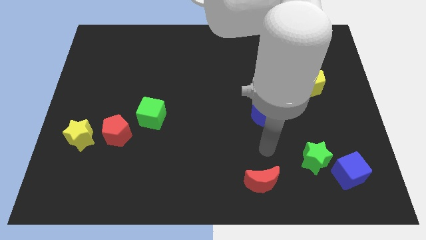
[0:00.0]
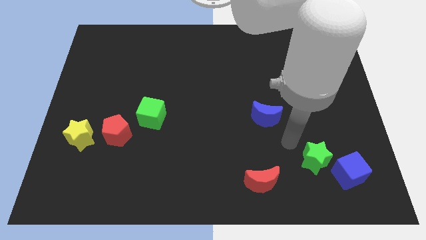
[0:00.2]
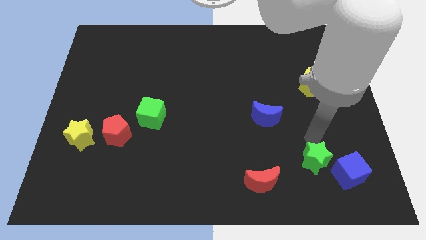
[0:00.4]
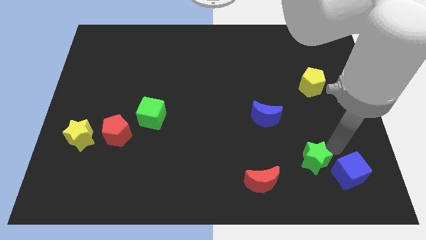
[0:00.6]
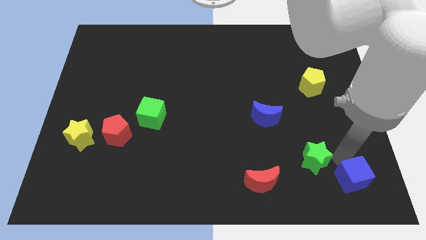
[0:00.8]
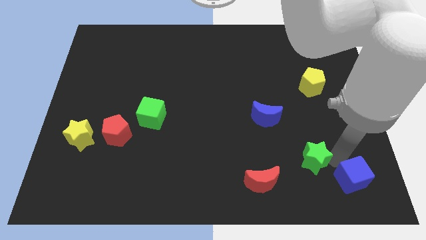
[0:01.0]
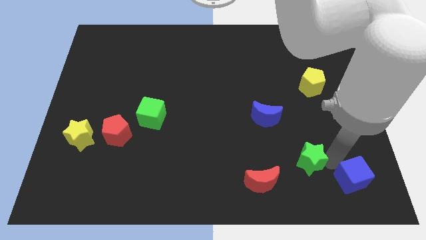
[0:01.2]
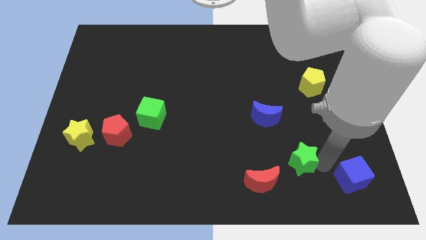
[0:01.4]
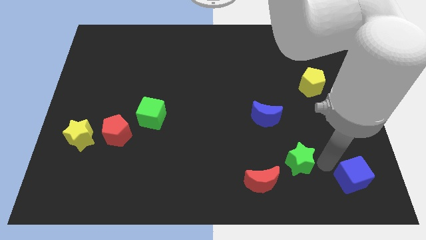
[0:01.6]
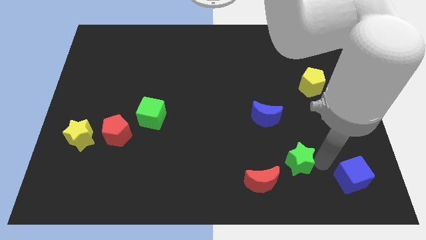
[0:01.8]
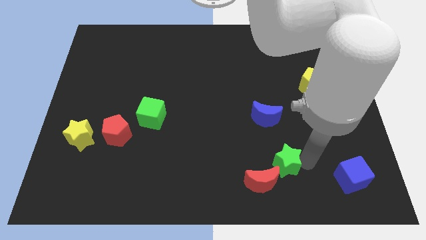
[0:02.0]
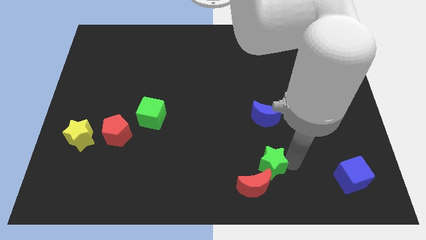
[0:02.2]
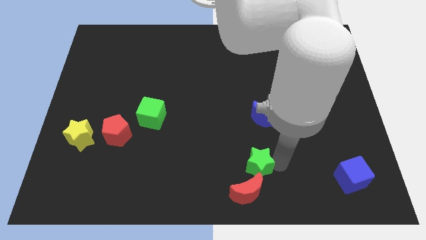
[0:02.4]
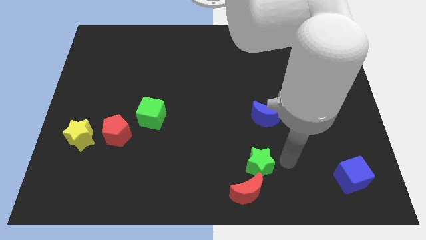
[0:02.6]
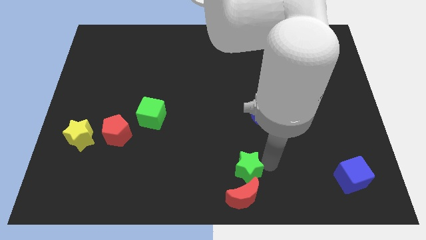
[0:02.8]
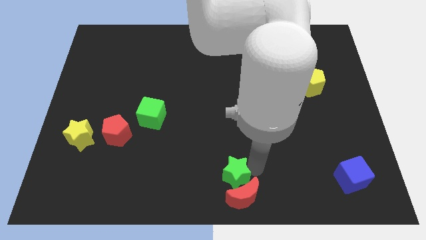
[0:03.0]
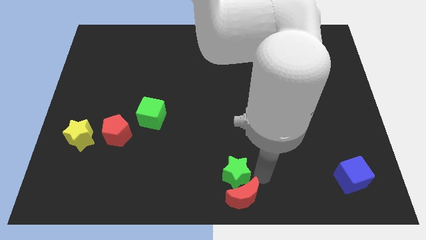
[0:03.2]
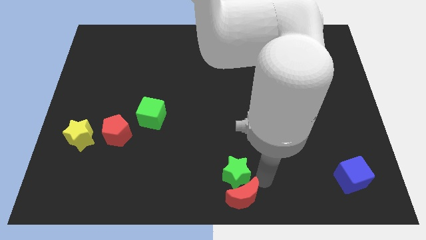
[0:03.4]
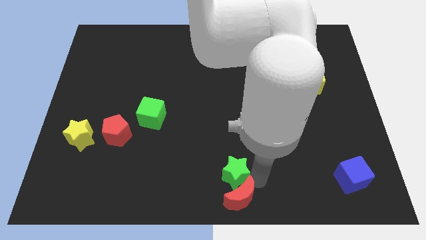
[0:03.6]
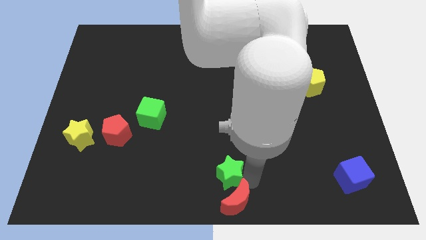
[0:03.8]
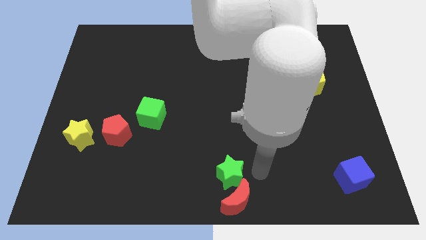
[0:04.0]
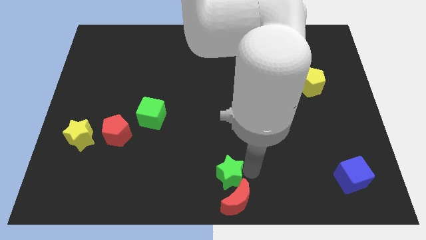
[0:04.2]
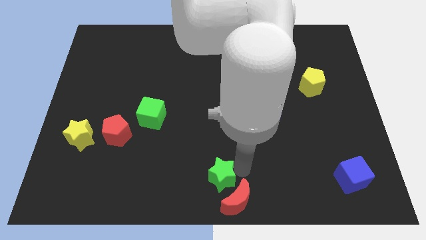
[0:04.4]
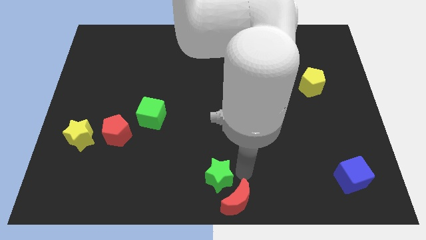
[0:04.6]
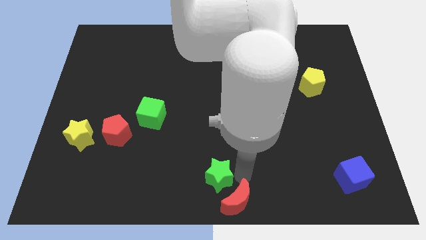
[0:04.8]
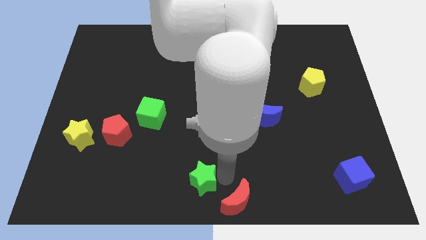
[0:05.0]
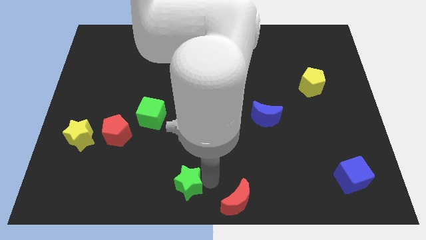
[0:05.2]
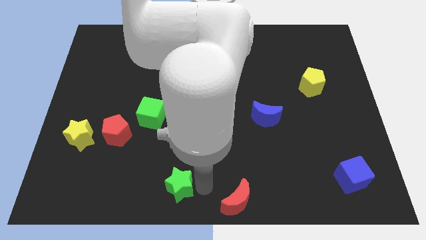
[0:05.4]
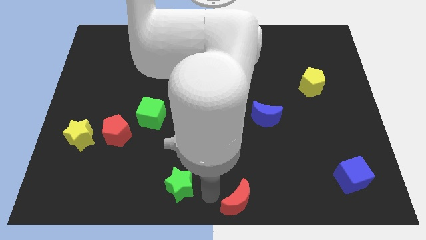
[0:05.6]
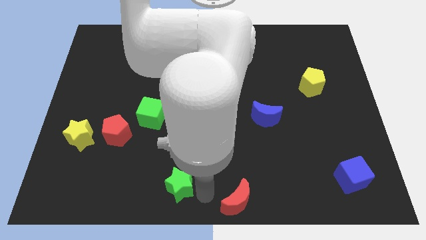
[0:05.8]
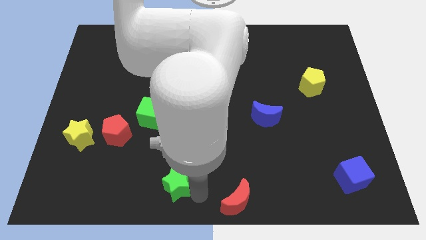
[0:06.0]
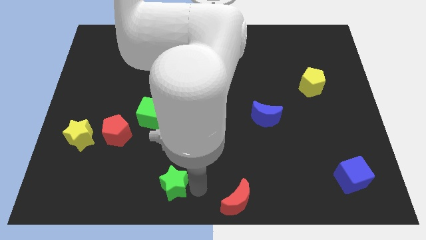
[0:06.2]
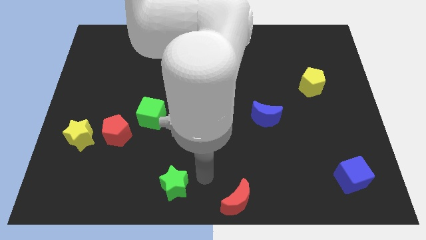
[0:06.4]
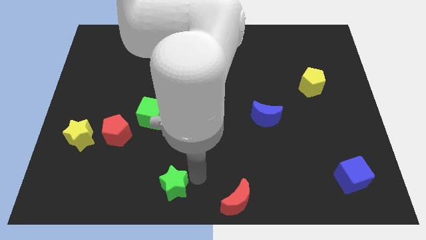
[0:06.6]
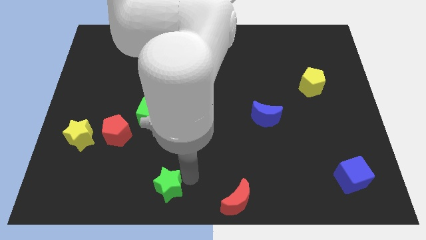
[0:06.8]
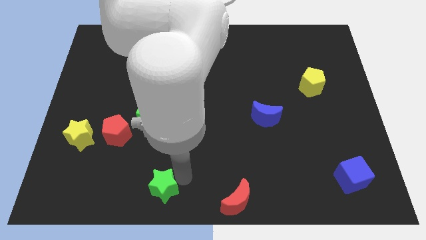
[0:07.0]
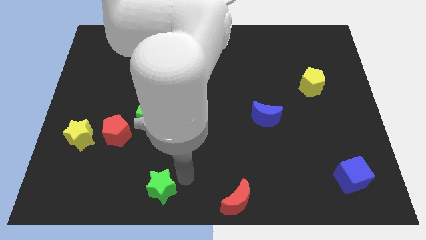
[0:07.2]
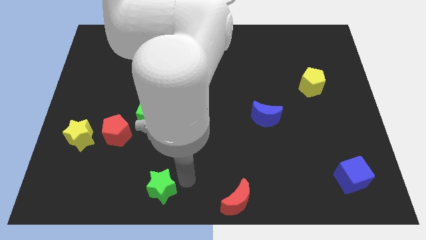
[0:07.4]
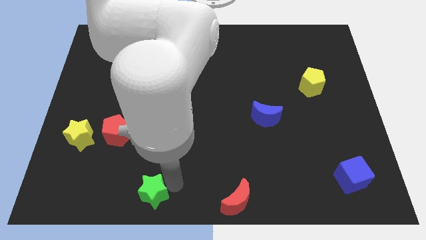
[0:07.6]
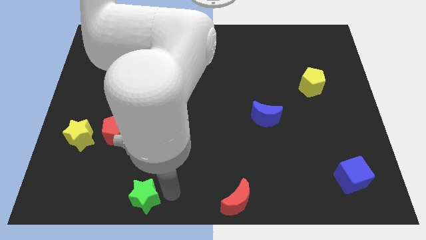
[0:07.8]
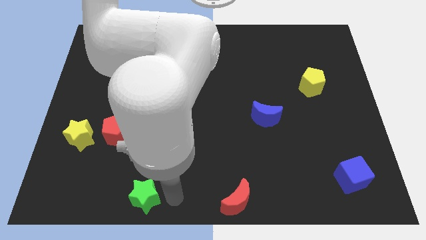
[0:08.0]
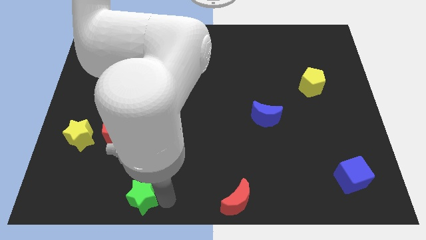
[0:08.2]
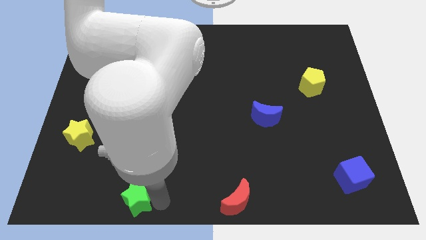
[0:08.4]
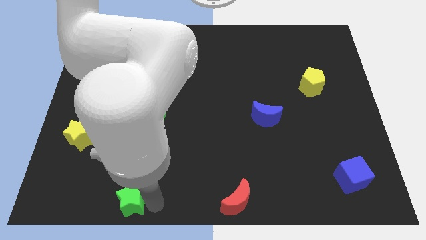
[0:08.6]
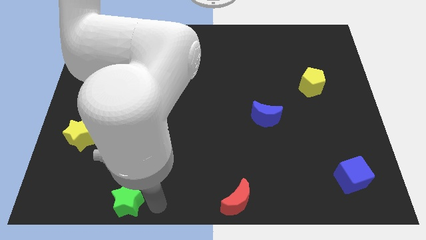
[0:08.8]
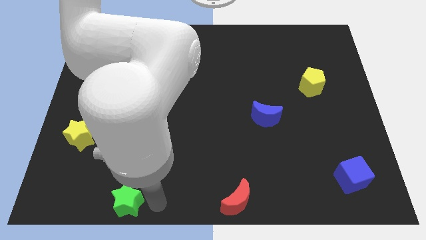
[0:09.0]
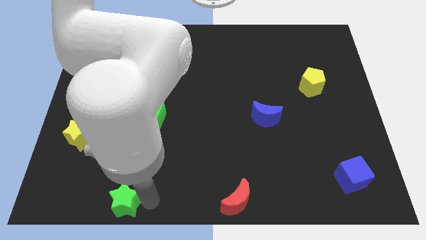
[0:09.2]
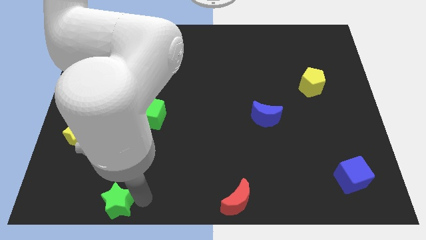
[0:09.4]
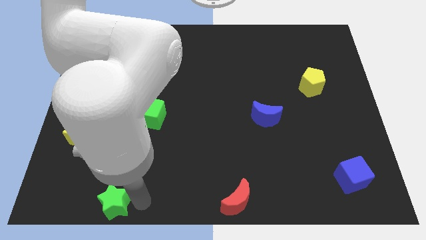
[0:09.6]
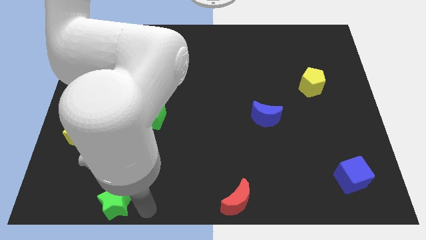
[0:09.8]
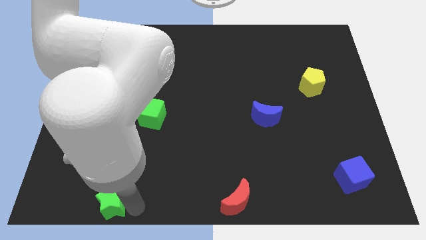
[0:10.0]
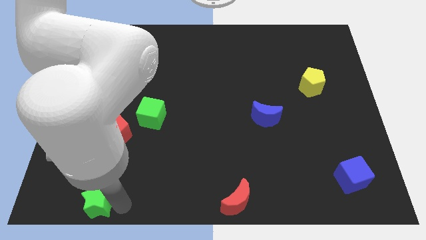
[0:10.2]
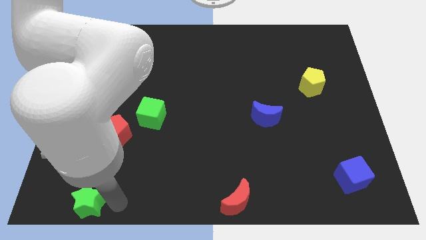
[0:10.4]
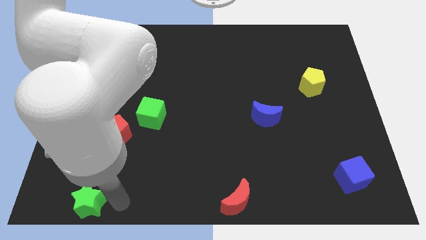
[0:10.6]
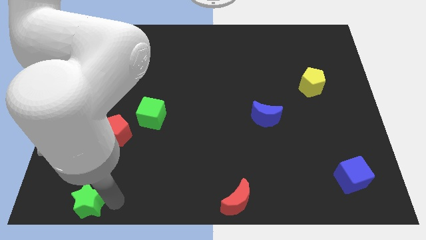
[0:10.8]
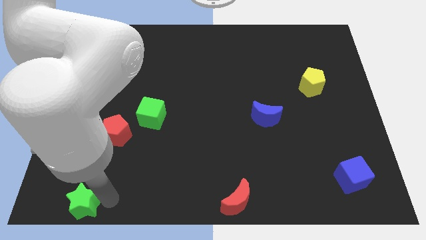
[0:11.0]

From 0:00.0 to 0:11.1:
put the green star to the bottom left

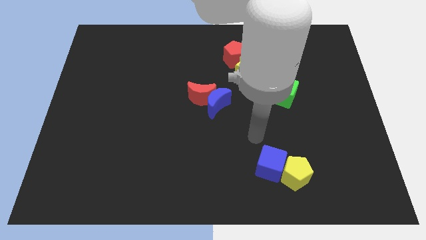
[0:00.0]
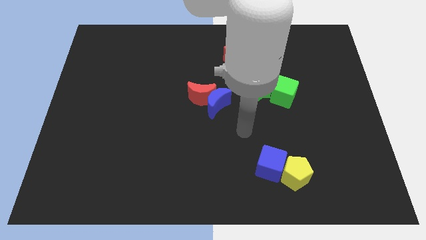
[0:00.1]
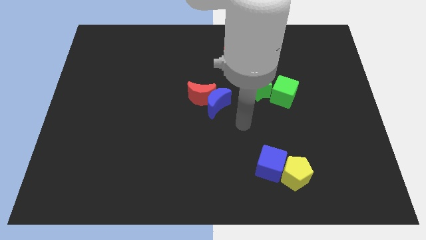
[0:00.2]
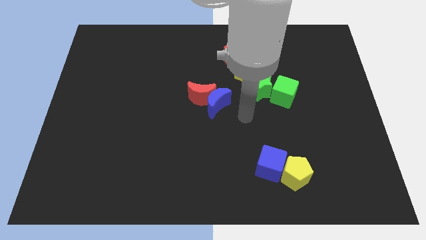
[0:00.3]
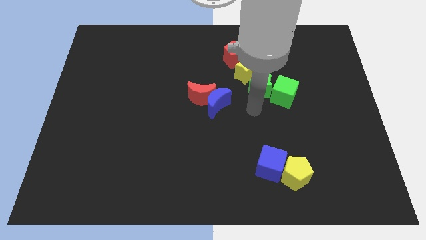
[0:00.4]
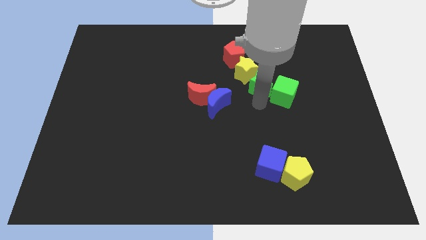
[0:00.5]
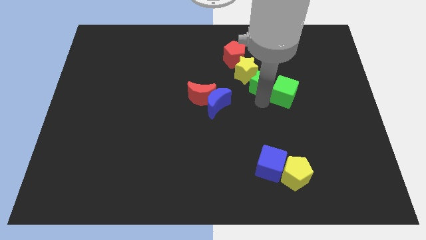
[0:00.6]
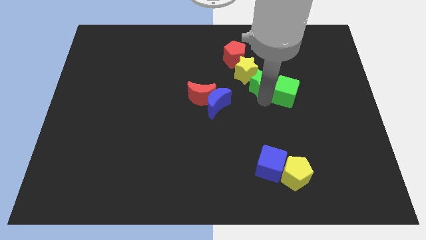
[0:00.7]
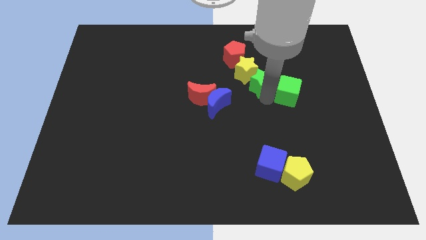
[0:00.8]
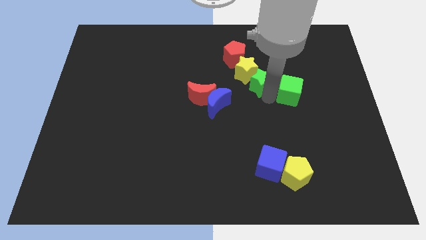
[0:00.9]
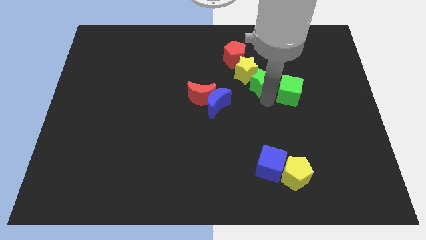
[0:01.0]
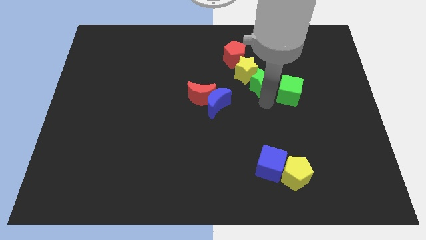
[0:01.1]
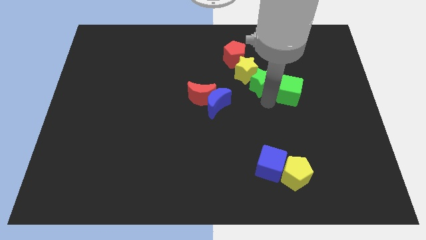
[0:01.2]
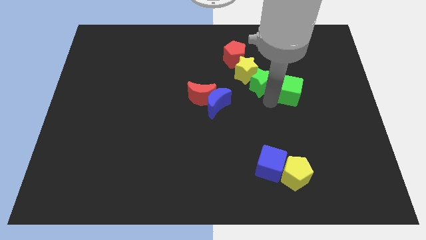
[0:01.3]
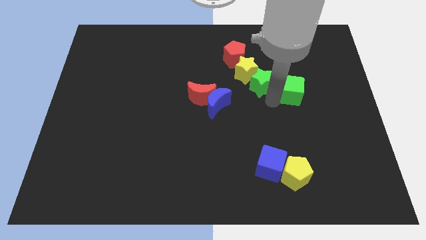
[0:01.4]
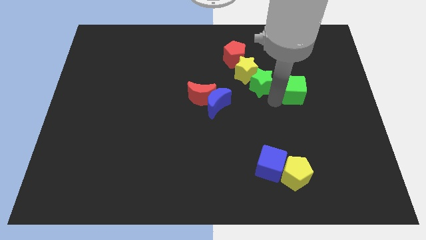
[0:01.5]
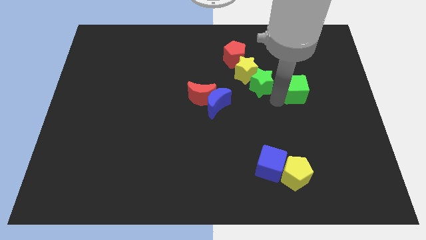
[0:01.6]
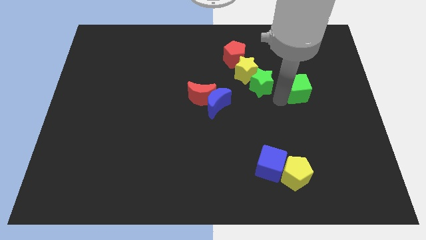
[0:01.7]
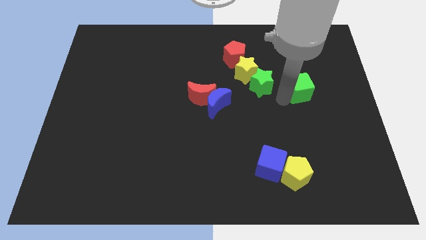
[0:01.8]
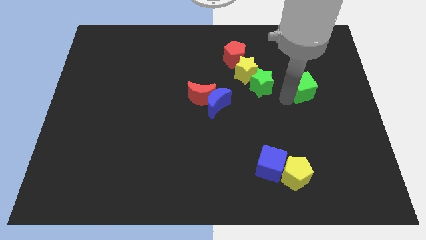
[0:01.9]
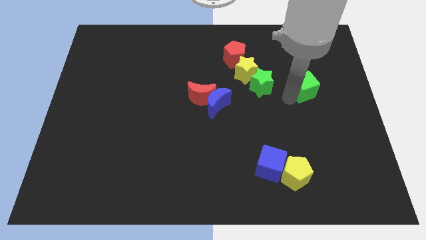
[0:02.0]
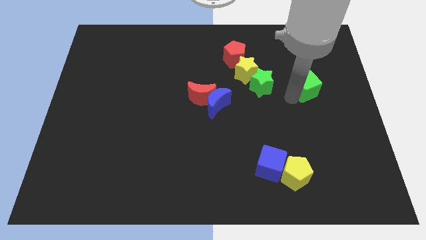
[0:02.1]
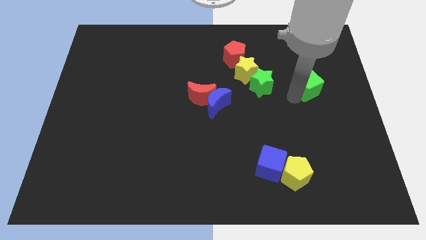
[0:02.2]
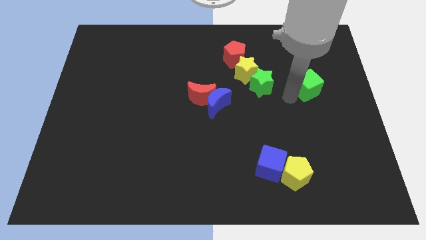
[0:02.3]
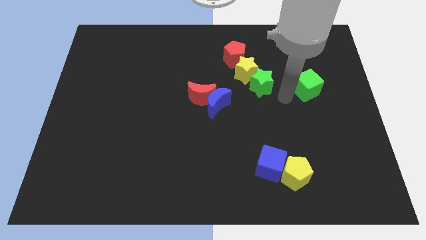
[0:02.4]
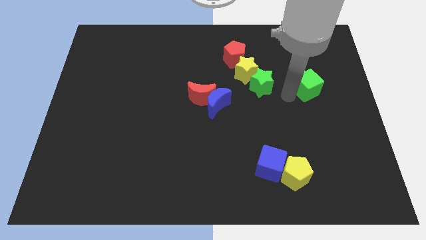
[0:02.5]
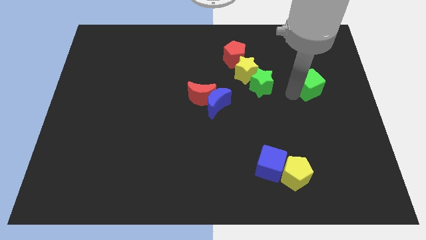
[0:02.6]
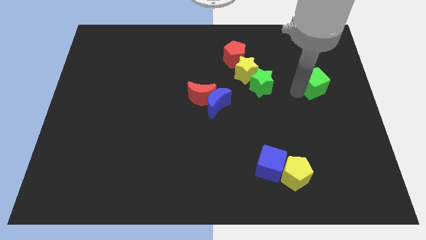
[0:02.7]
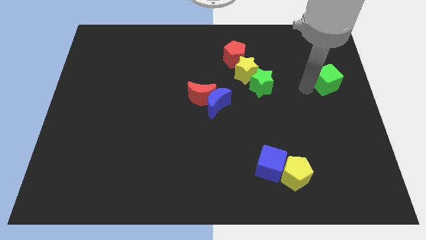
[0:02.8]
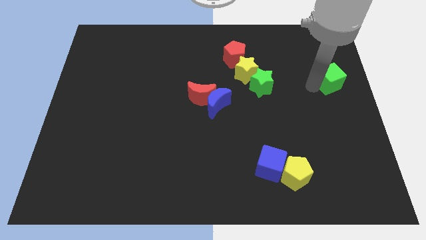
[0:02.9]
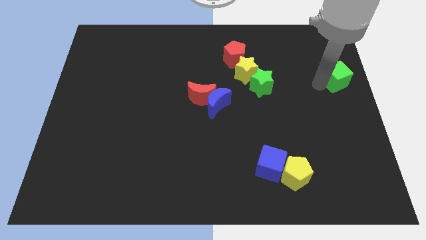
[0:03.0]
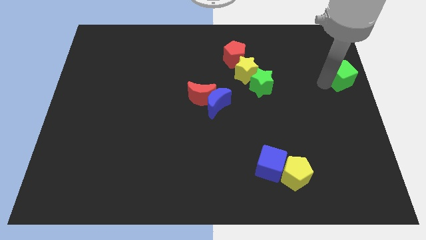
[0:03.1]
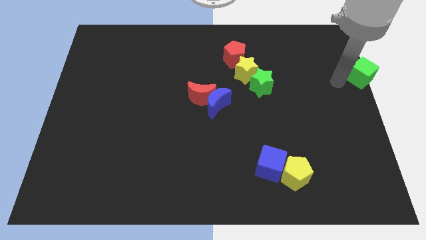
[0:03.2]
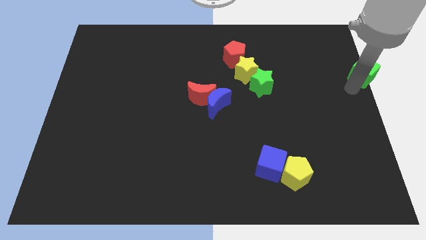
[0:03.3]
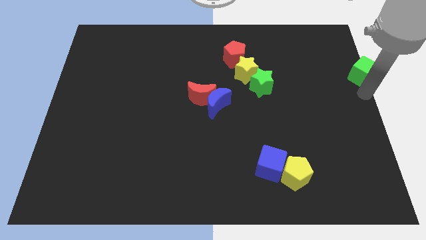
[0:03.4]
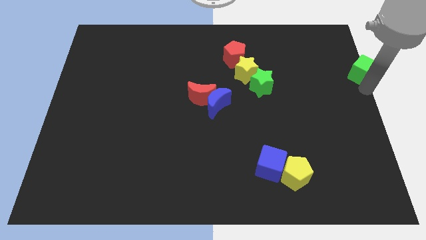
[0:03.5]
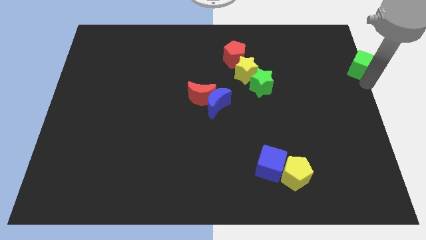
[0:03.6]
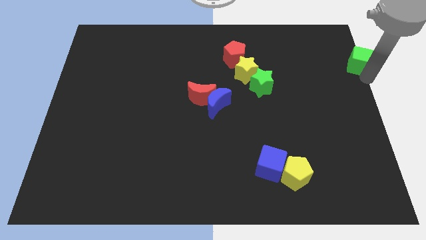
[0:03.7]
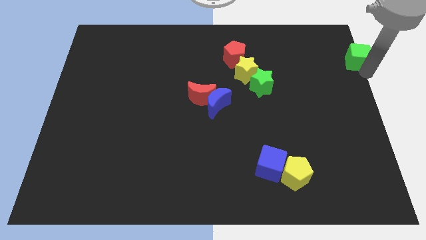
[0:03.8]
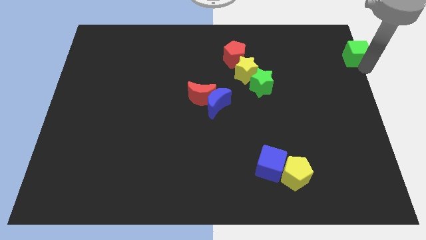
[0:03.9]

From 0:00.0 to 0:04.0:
move the green cube to the top right of the board
